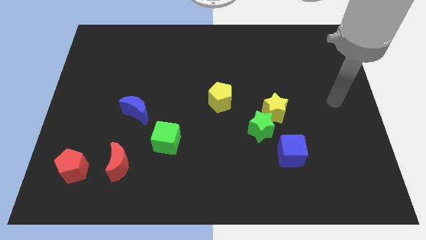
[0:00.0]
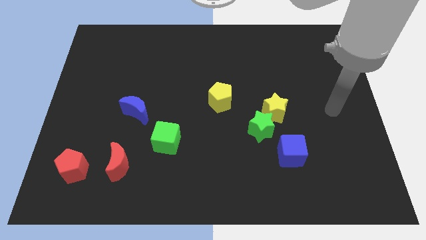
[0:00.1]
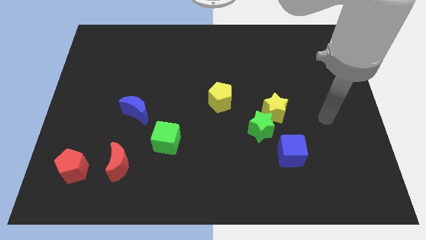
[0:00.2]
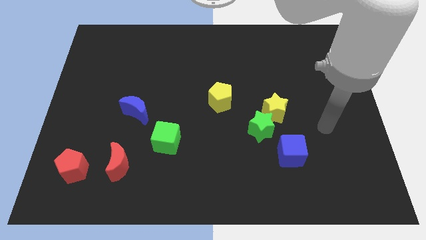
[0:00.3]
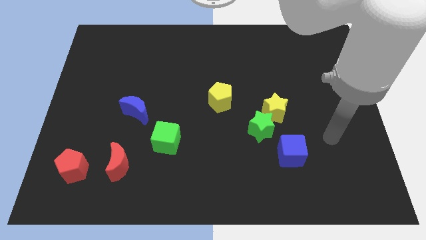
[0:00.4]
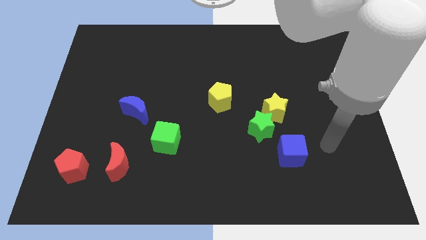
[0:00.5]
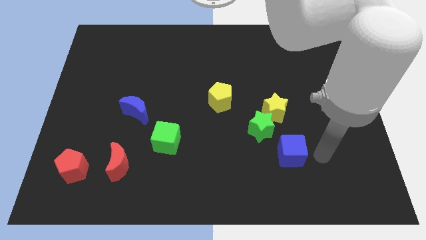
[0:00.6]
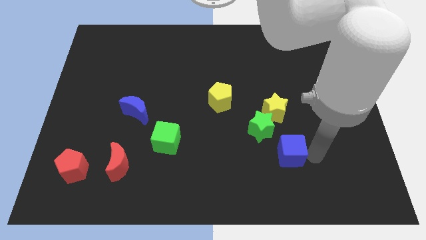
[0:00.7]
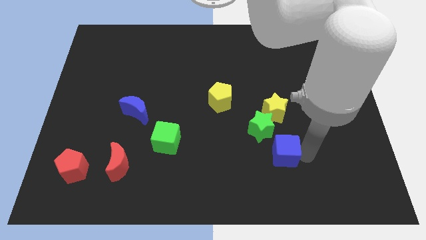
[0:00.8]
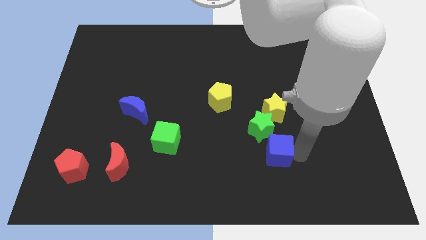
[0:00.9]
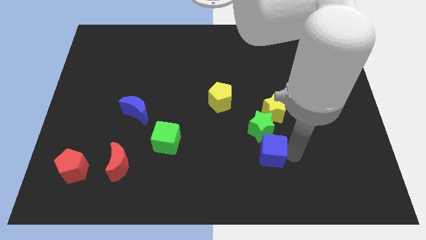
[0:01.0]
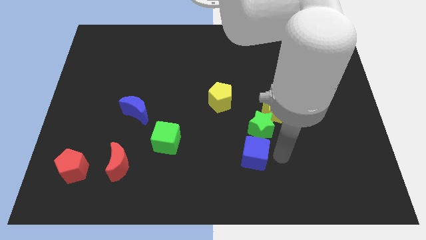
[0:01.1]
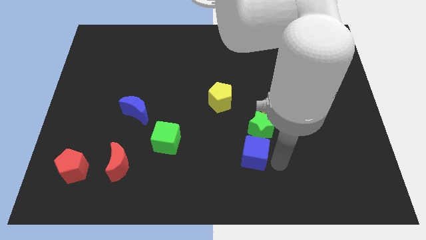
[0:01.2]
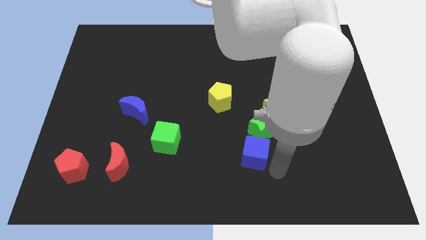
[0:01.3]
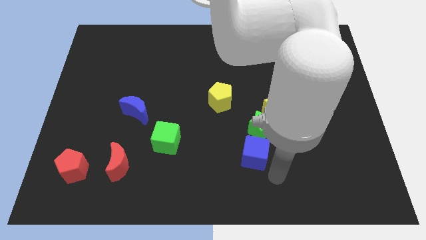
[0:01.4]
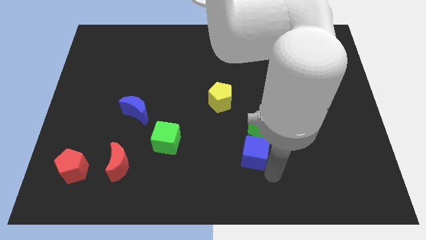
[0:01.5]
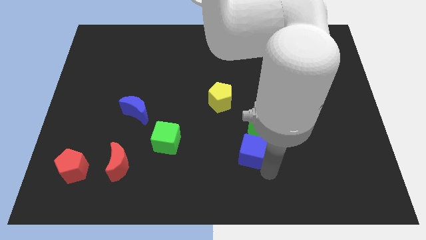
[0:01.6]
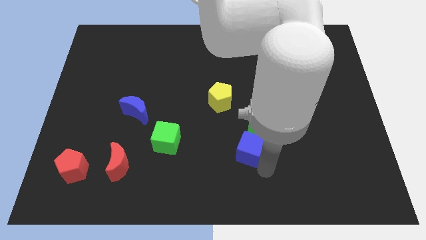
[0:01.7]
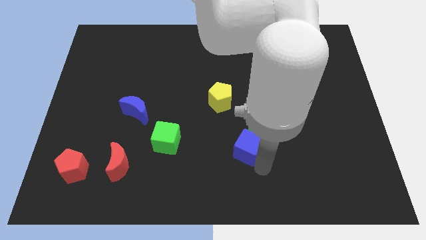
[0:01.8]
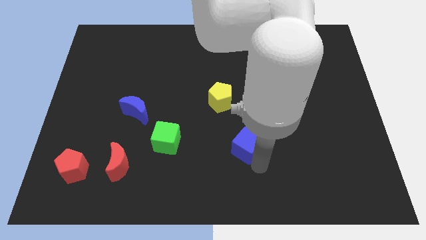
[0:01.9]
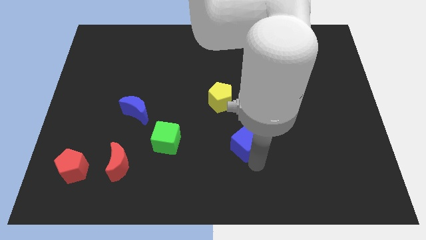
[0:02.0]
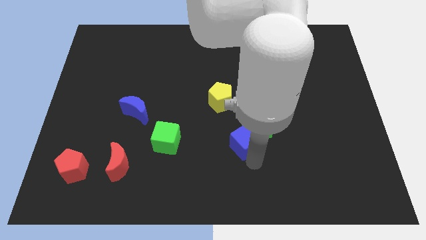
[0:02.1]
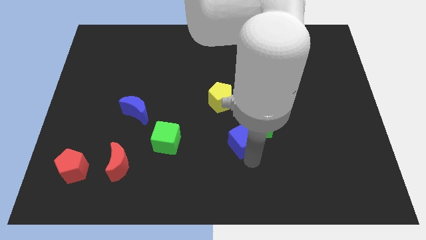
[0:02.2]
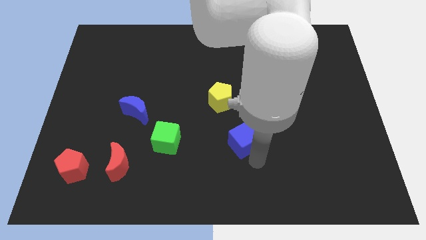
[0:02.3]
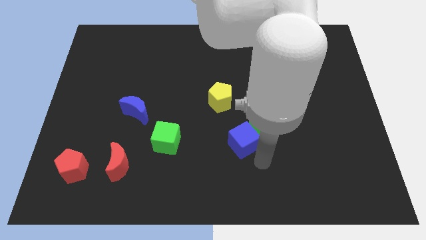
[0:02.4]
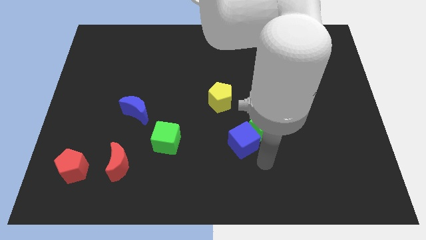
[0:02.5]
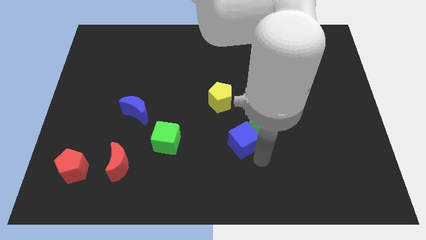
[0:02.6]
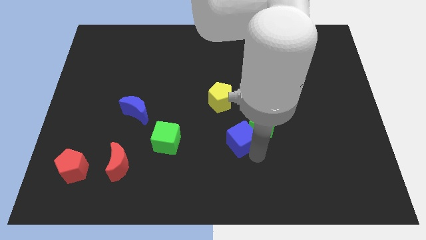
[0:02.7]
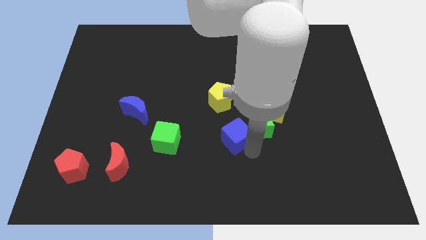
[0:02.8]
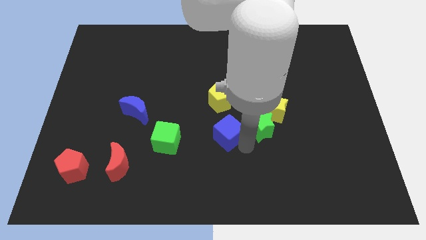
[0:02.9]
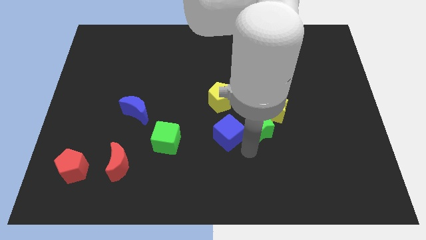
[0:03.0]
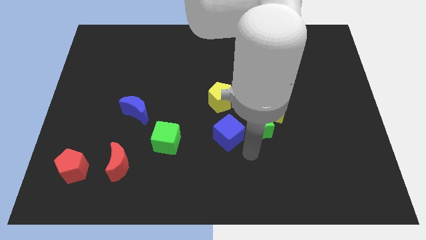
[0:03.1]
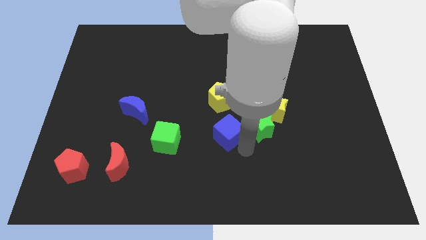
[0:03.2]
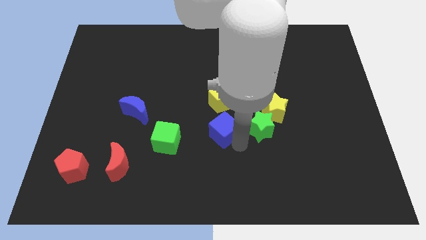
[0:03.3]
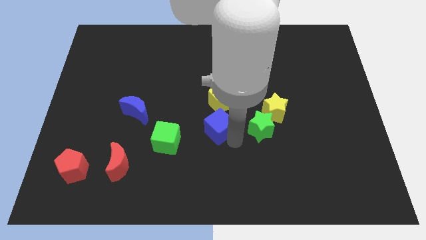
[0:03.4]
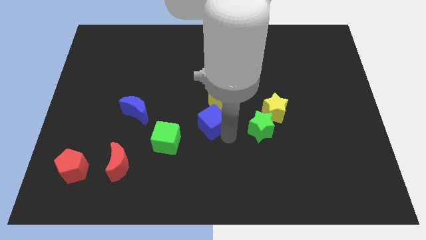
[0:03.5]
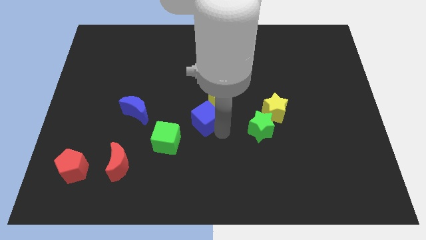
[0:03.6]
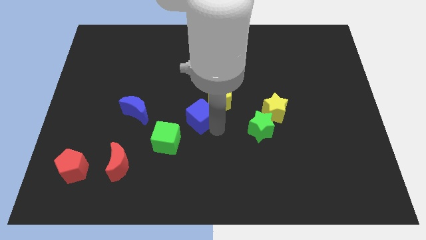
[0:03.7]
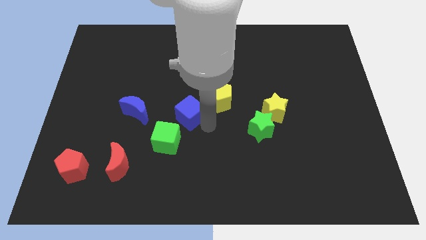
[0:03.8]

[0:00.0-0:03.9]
move the blue cube upwards and left diagonally

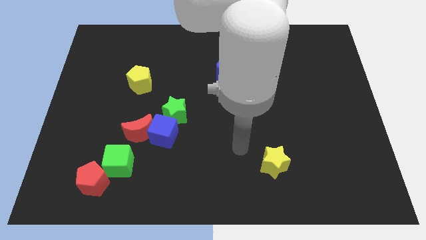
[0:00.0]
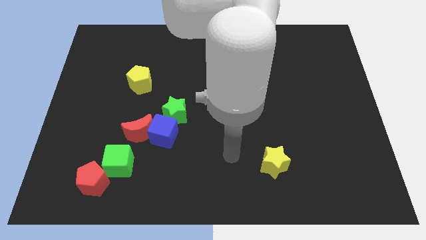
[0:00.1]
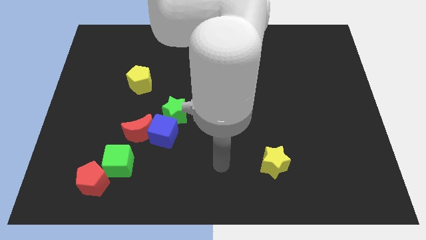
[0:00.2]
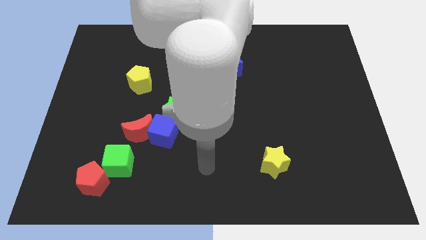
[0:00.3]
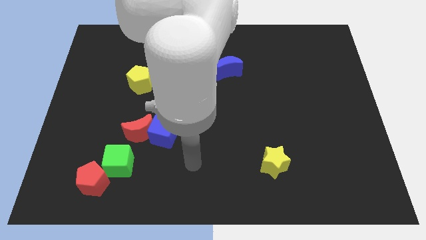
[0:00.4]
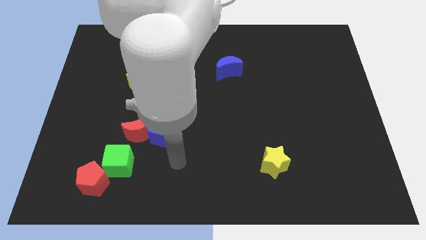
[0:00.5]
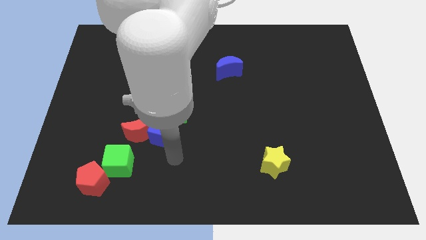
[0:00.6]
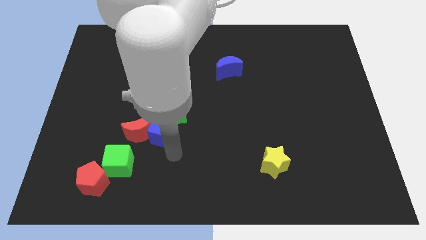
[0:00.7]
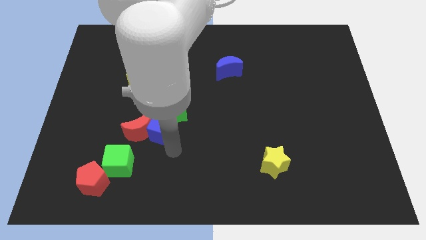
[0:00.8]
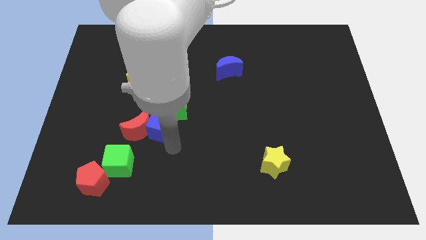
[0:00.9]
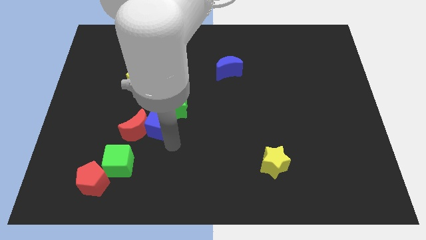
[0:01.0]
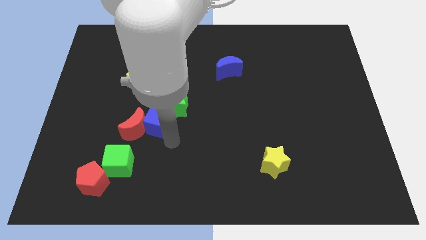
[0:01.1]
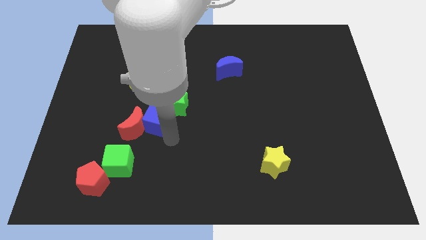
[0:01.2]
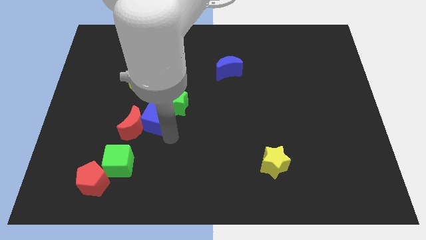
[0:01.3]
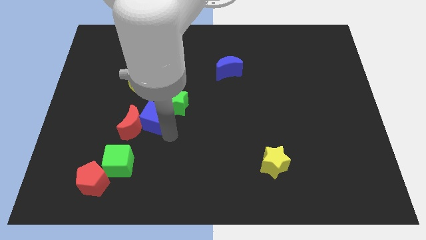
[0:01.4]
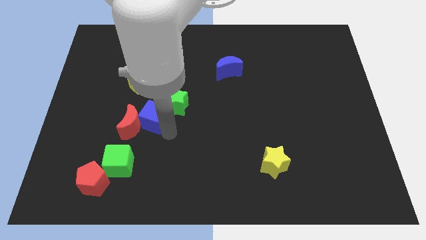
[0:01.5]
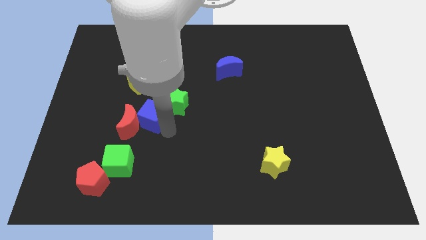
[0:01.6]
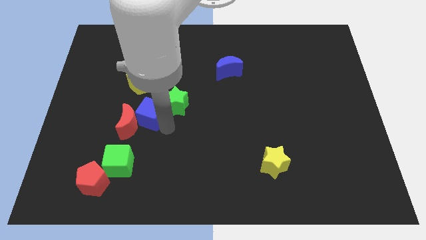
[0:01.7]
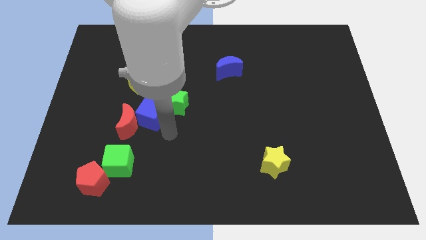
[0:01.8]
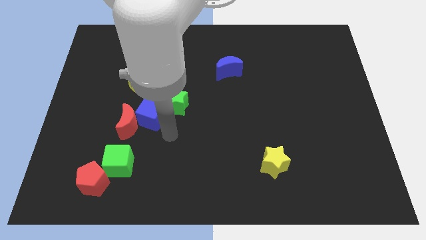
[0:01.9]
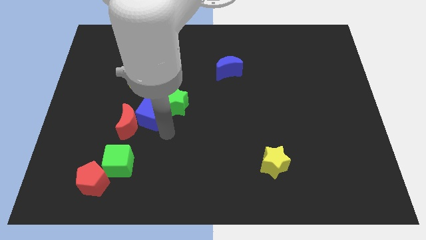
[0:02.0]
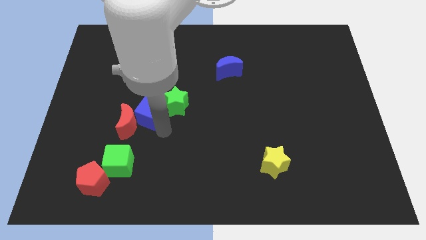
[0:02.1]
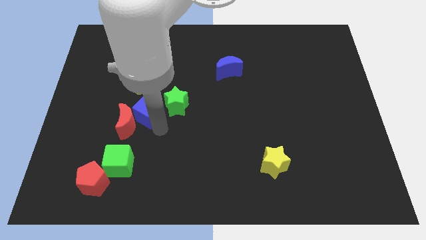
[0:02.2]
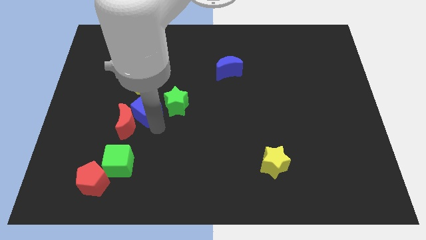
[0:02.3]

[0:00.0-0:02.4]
slightly push the blue cube diagonally up and left

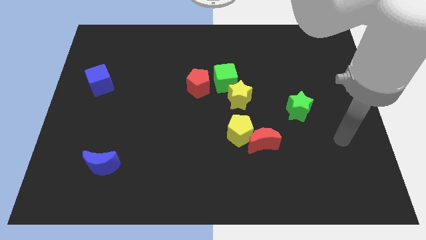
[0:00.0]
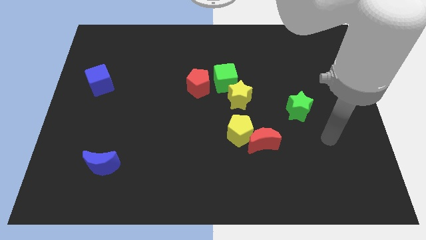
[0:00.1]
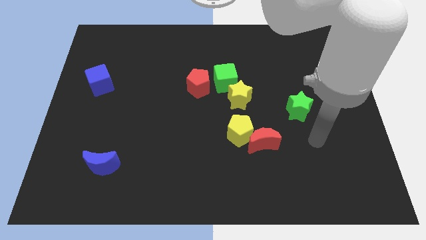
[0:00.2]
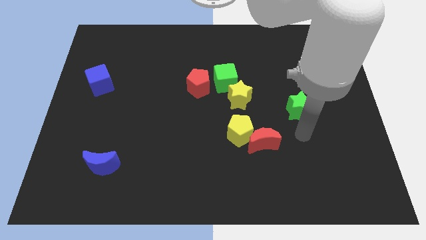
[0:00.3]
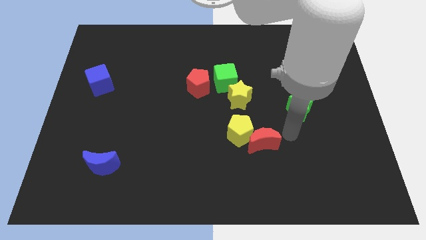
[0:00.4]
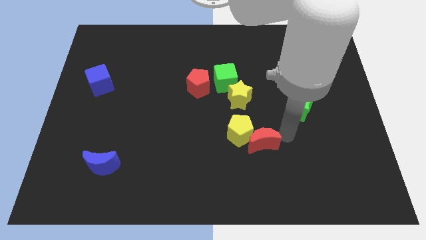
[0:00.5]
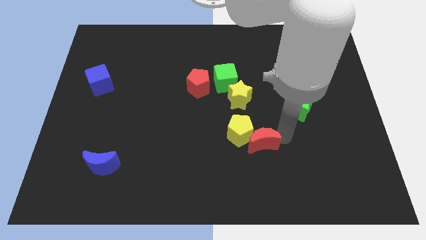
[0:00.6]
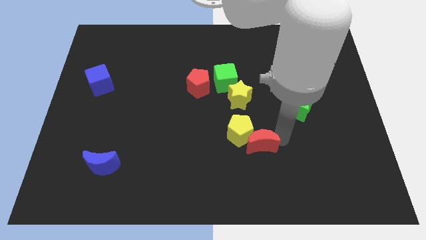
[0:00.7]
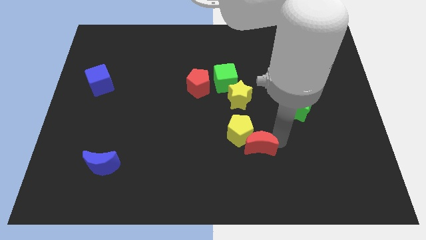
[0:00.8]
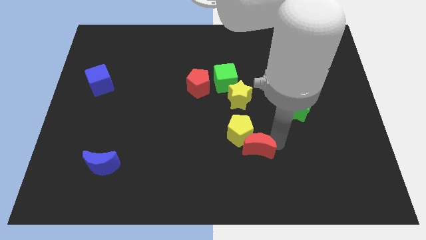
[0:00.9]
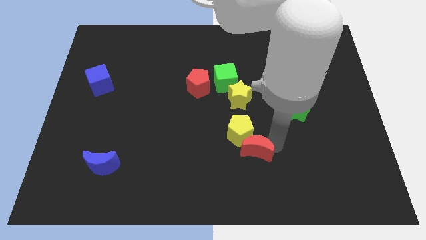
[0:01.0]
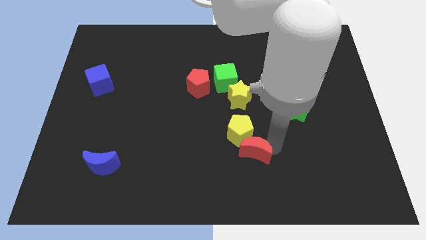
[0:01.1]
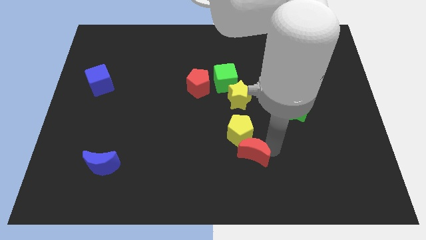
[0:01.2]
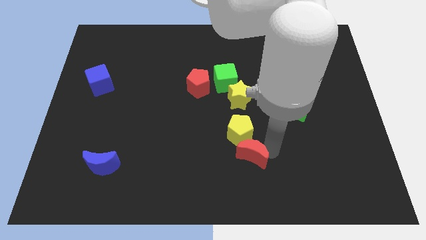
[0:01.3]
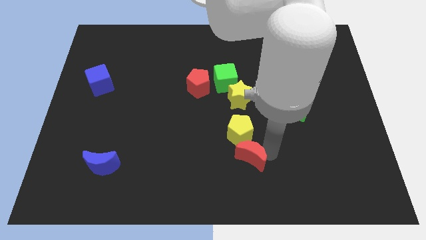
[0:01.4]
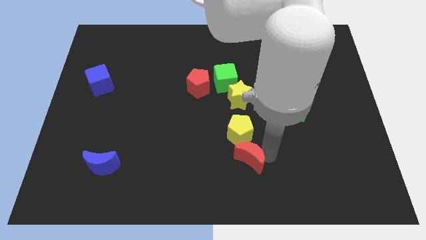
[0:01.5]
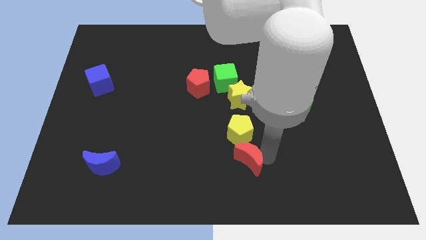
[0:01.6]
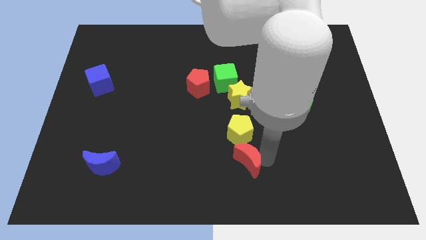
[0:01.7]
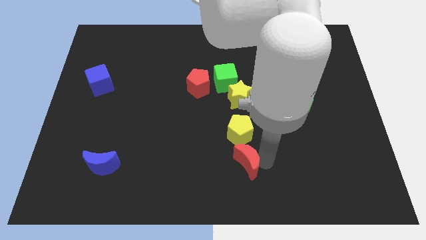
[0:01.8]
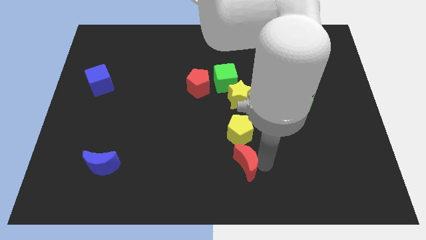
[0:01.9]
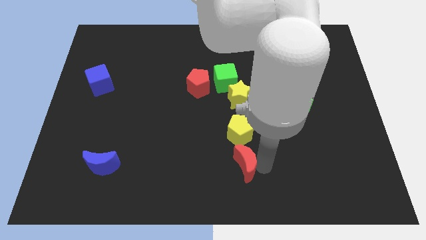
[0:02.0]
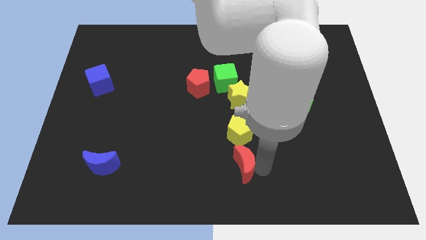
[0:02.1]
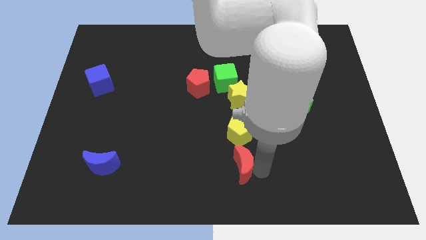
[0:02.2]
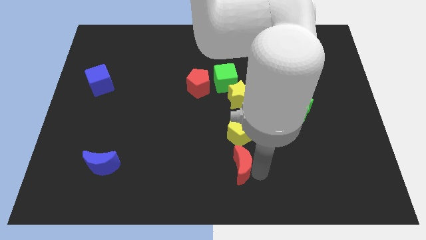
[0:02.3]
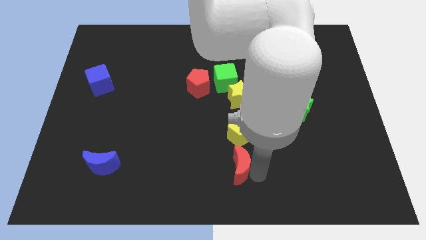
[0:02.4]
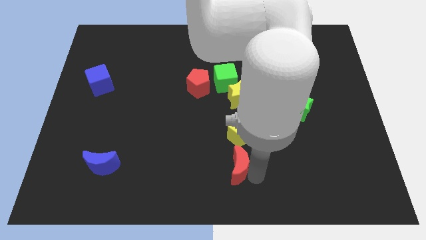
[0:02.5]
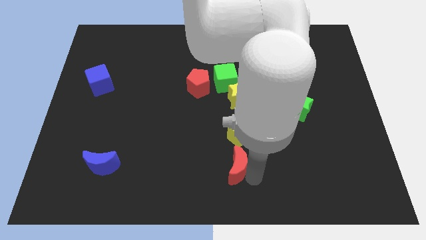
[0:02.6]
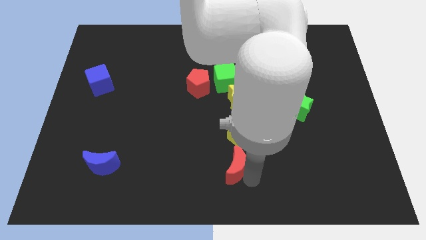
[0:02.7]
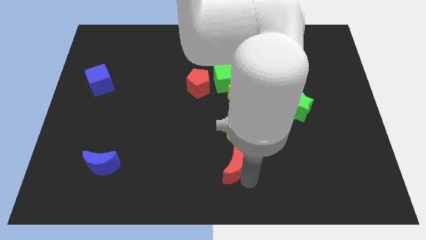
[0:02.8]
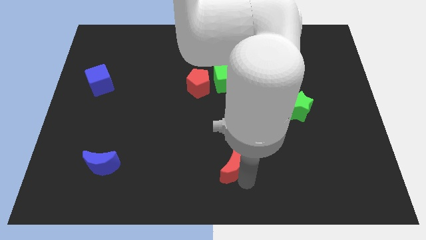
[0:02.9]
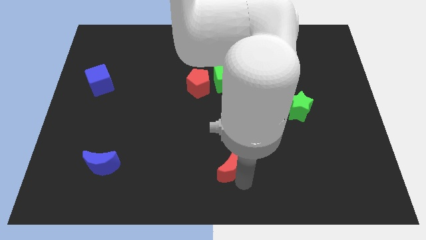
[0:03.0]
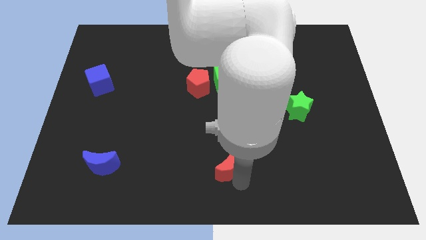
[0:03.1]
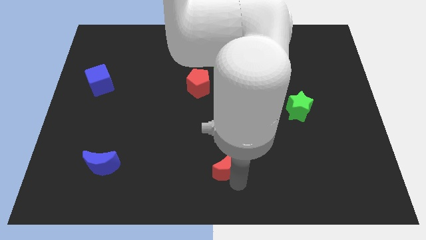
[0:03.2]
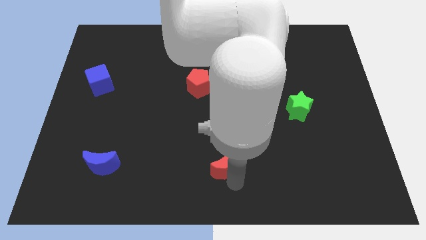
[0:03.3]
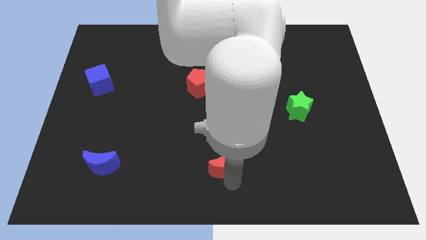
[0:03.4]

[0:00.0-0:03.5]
slightly slide the red moon left
